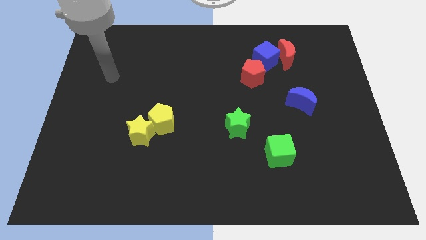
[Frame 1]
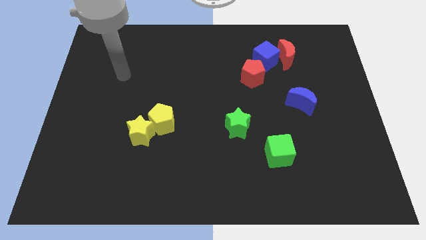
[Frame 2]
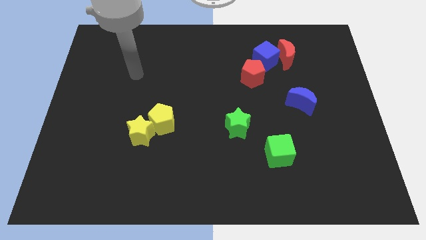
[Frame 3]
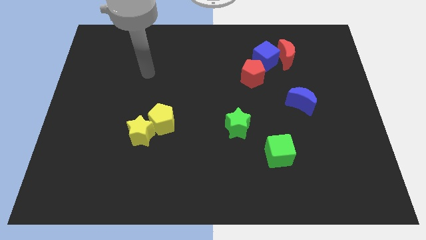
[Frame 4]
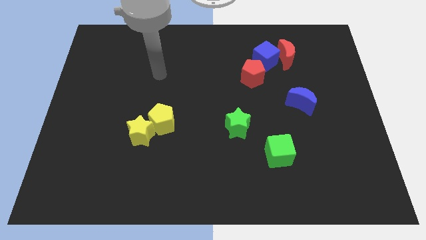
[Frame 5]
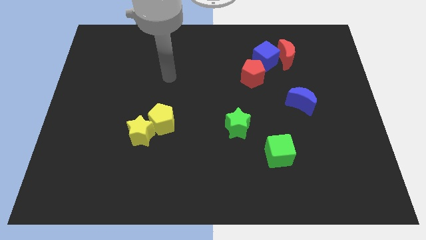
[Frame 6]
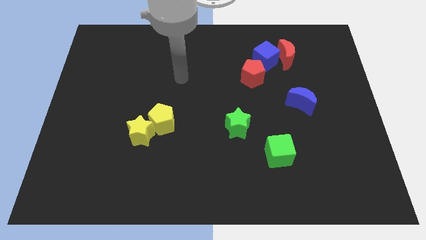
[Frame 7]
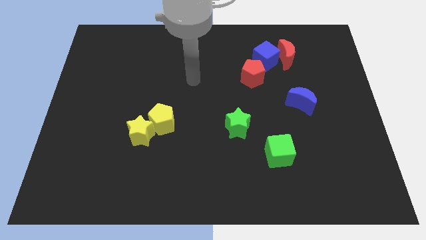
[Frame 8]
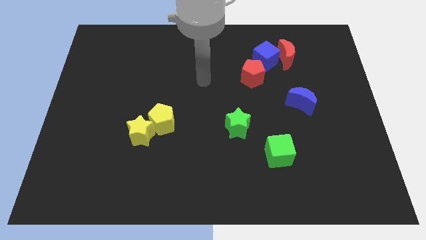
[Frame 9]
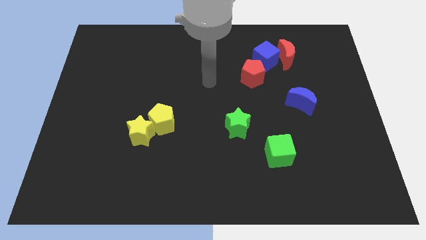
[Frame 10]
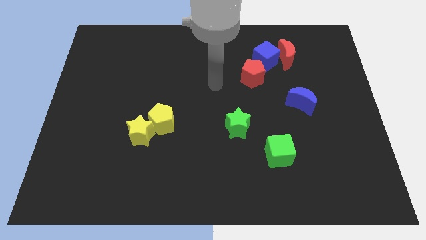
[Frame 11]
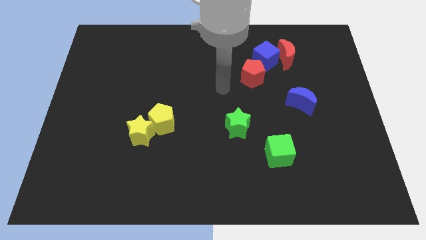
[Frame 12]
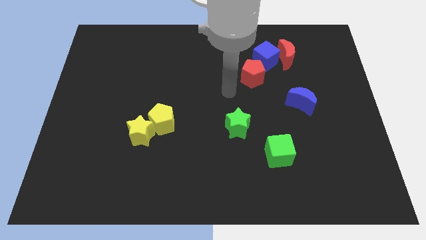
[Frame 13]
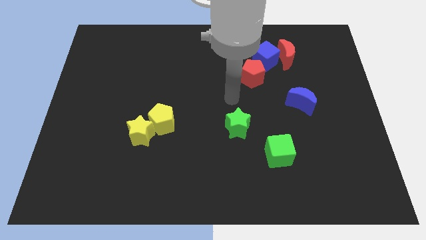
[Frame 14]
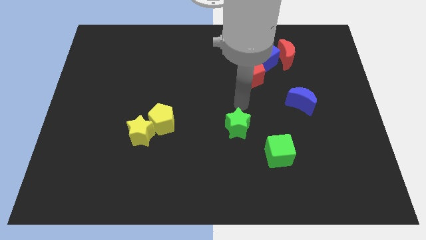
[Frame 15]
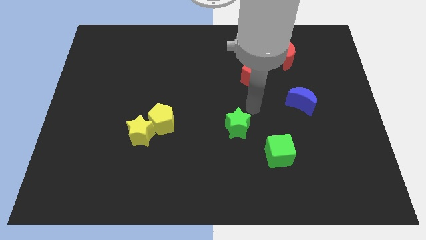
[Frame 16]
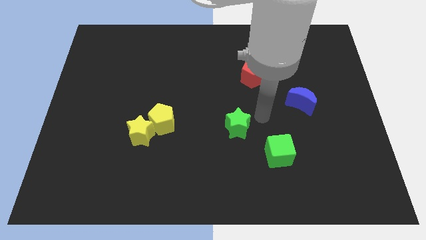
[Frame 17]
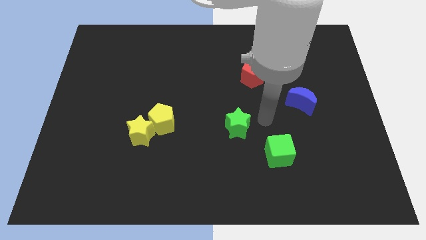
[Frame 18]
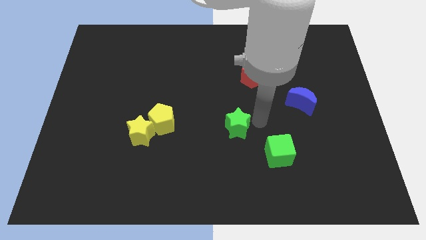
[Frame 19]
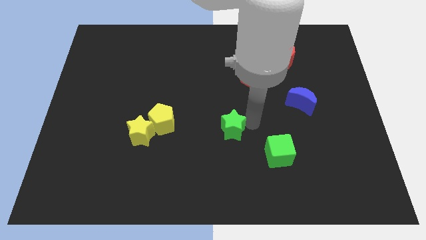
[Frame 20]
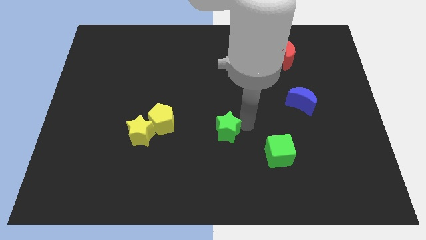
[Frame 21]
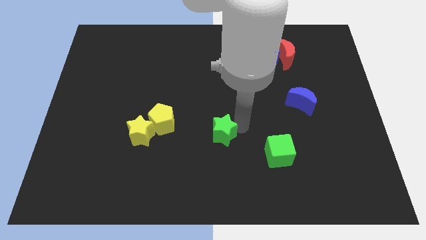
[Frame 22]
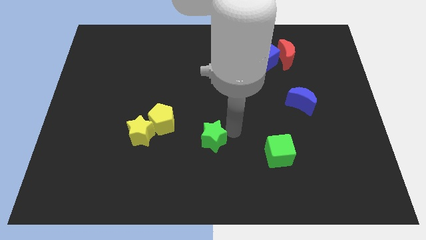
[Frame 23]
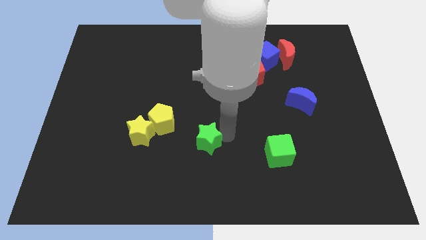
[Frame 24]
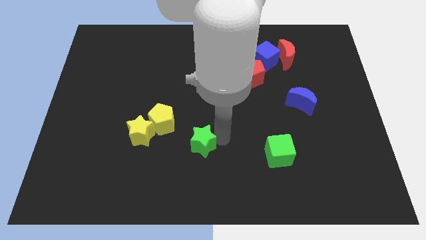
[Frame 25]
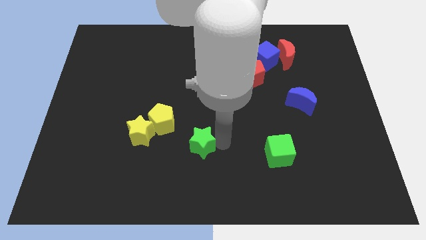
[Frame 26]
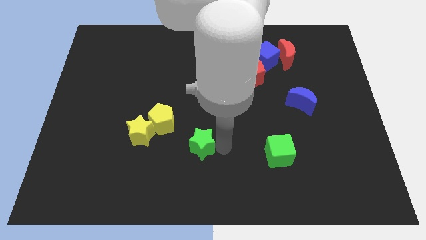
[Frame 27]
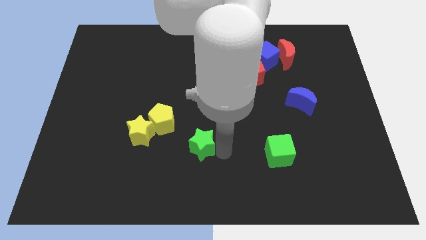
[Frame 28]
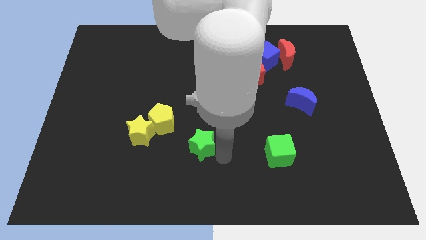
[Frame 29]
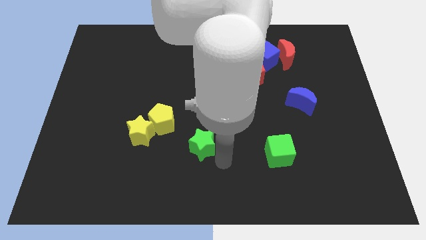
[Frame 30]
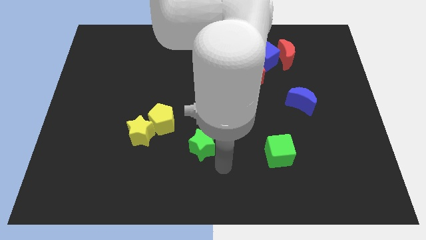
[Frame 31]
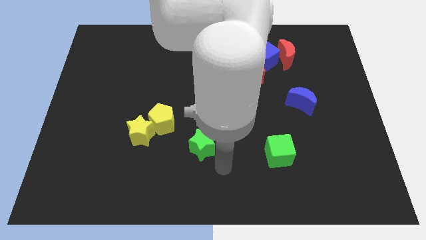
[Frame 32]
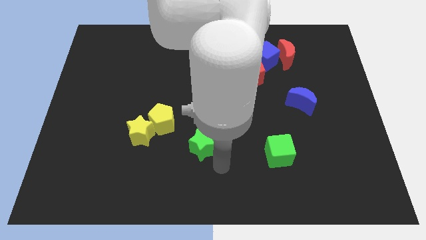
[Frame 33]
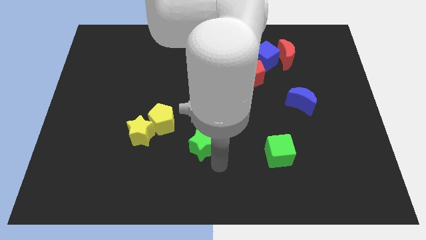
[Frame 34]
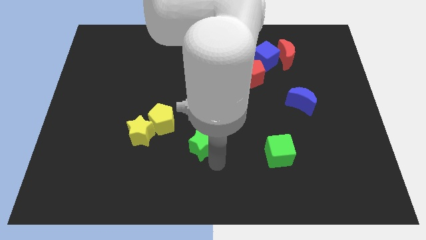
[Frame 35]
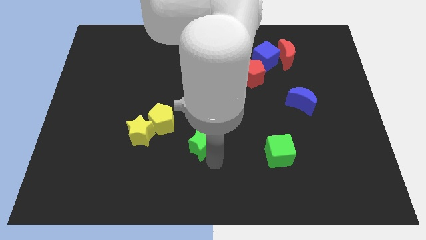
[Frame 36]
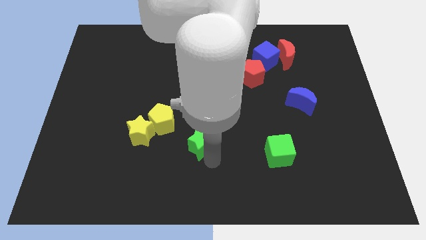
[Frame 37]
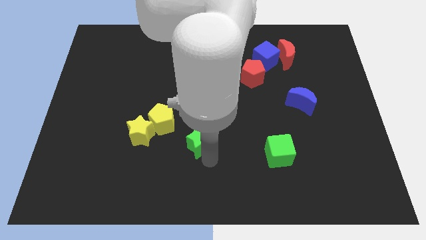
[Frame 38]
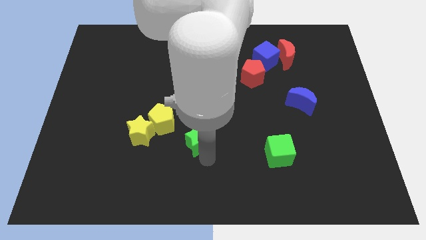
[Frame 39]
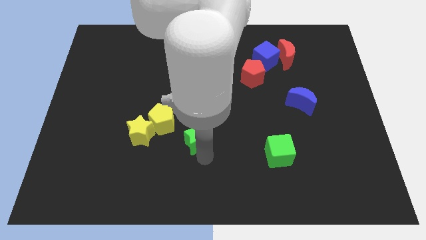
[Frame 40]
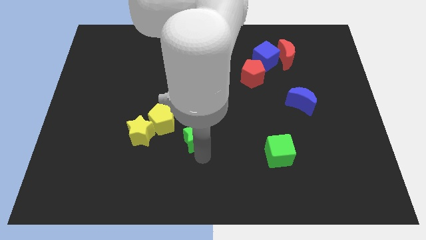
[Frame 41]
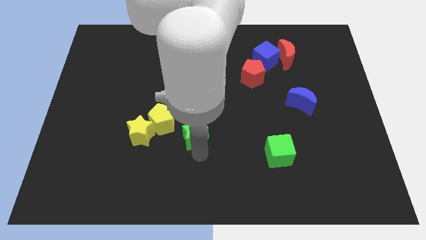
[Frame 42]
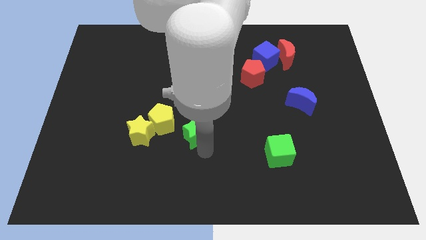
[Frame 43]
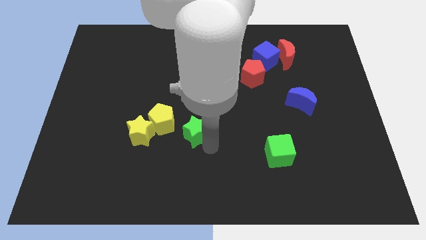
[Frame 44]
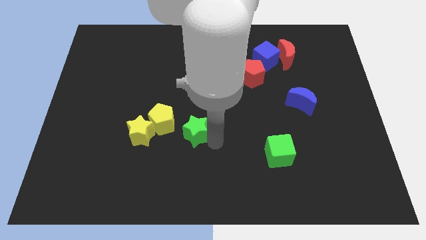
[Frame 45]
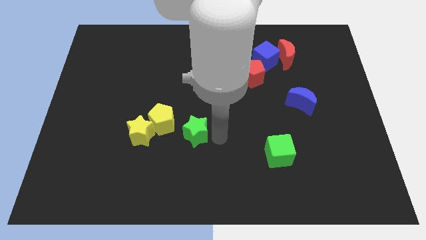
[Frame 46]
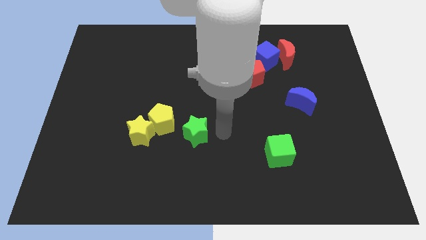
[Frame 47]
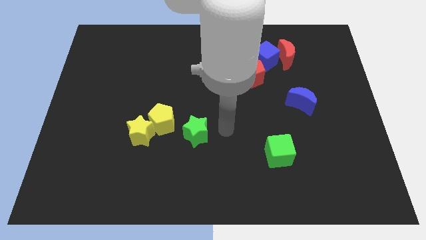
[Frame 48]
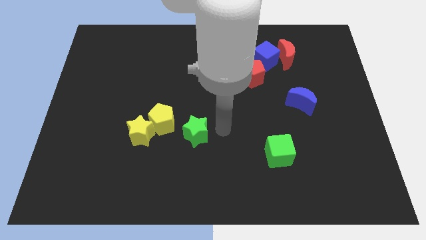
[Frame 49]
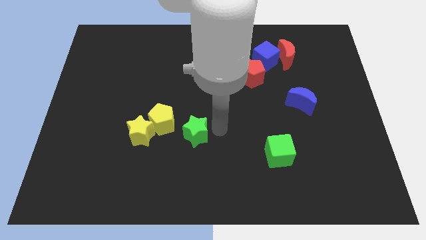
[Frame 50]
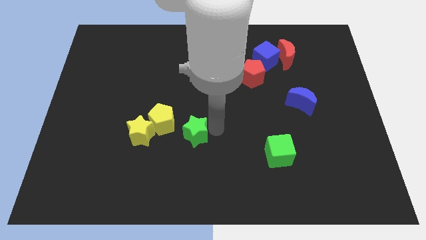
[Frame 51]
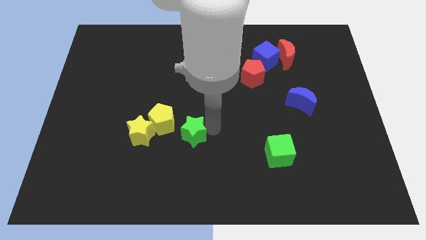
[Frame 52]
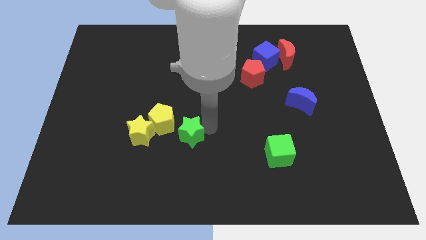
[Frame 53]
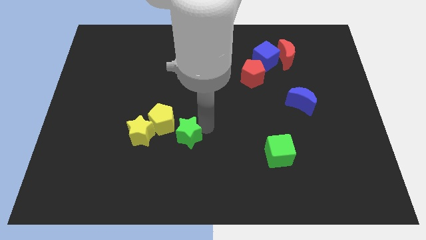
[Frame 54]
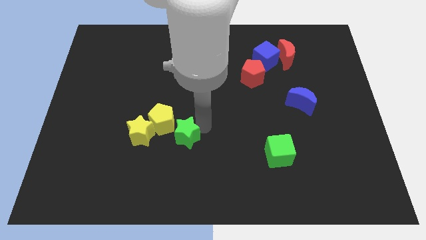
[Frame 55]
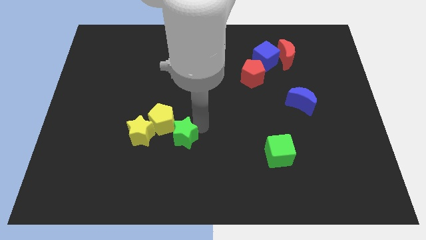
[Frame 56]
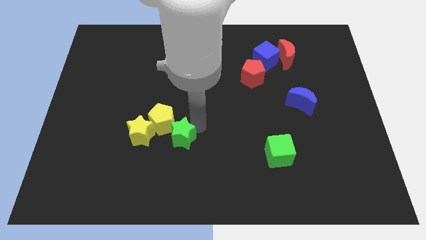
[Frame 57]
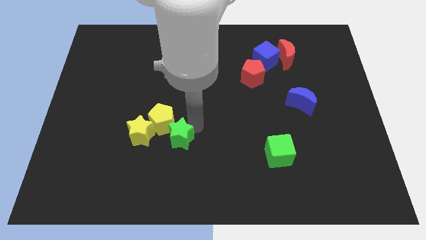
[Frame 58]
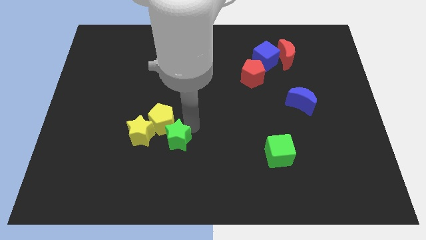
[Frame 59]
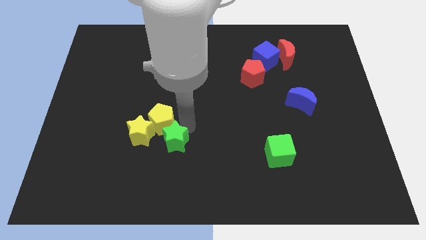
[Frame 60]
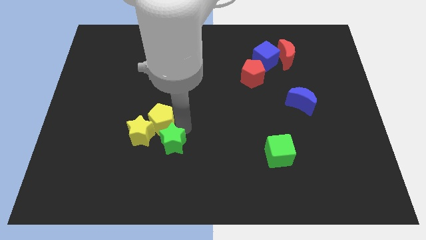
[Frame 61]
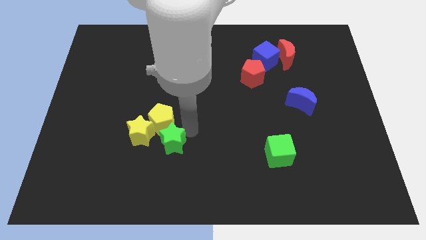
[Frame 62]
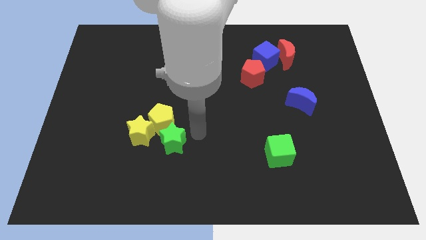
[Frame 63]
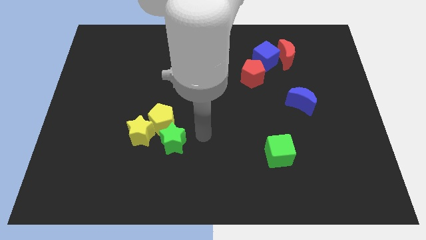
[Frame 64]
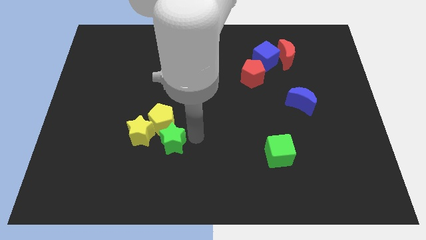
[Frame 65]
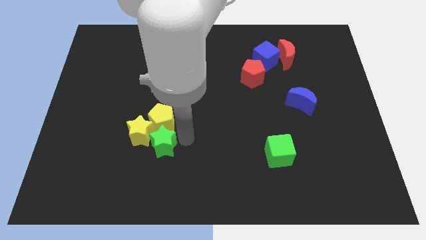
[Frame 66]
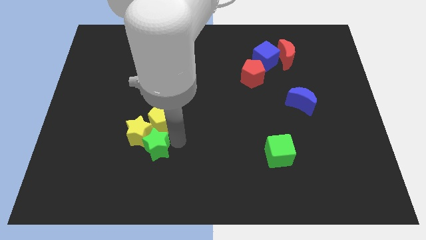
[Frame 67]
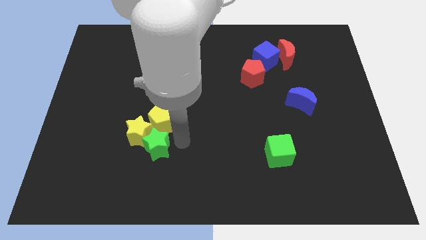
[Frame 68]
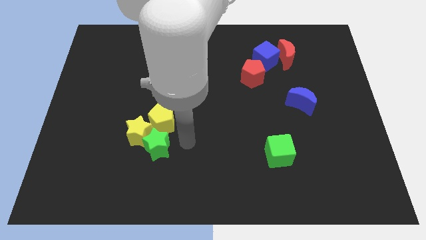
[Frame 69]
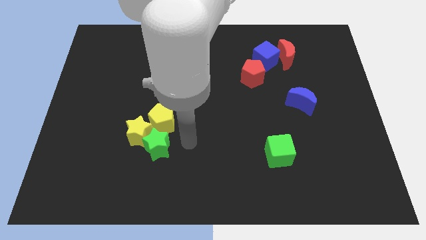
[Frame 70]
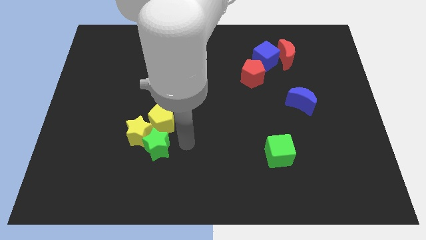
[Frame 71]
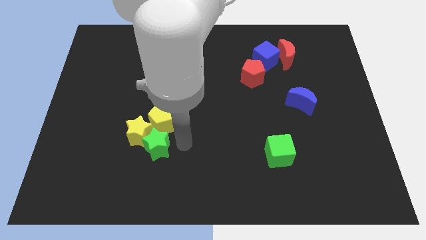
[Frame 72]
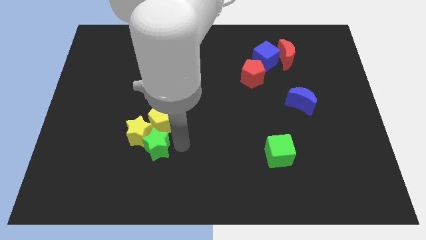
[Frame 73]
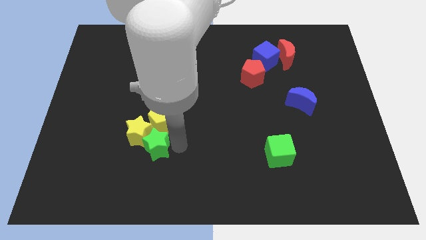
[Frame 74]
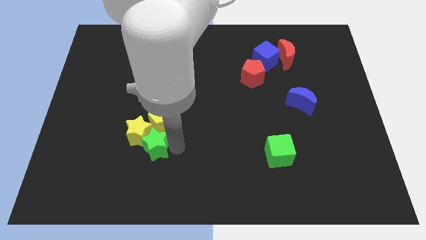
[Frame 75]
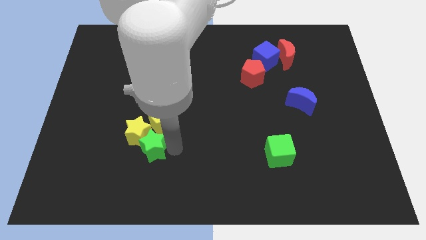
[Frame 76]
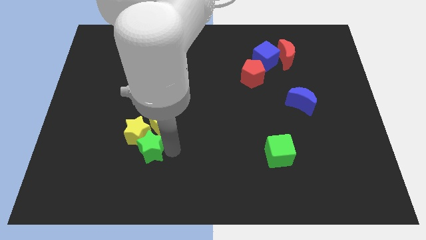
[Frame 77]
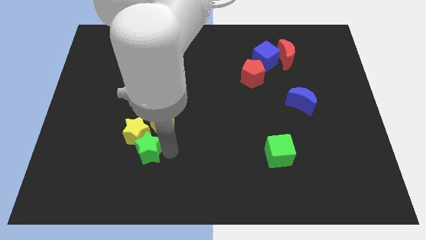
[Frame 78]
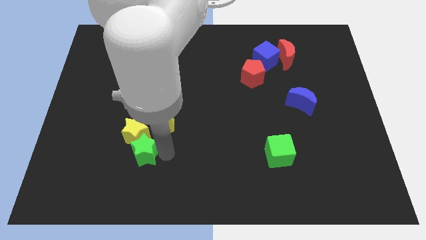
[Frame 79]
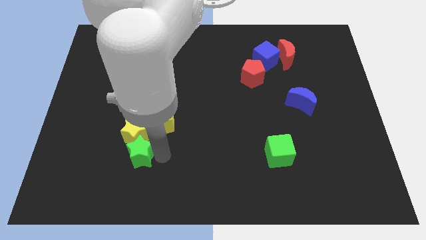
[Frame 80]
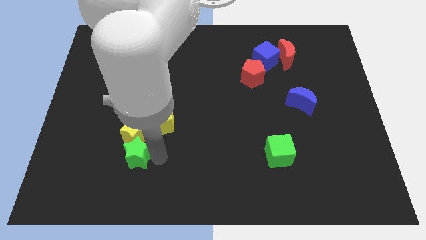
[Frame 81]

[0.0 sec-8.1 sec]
slide the green star to the bottom left of the yellow star
